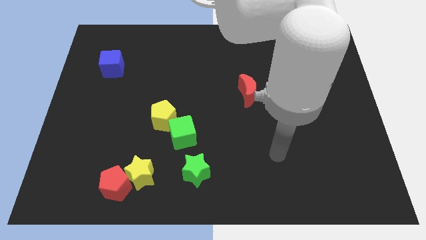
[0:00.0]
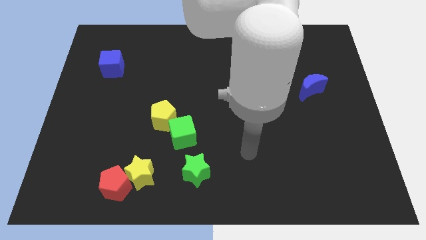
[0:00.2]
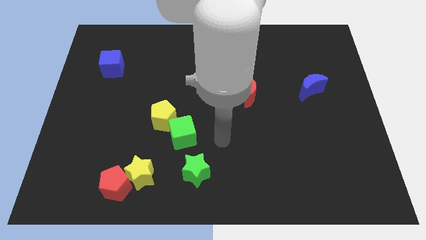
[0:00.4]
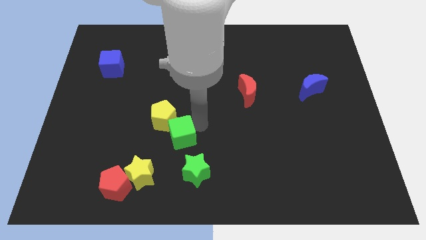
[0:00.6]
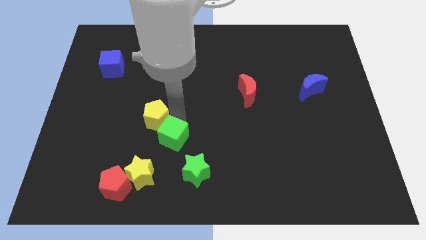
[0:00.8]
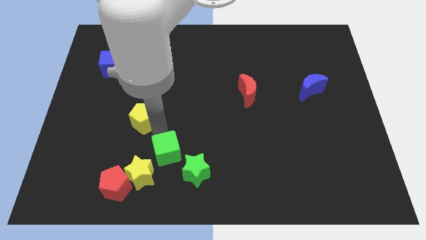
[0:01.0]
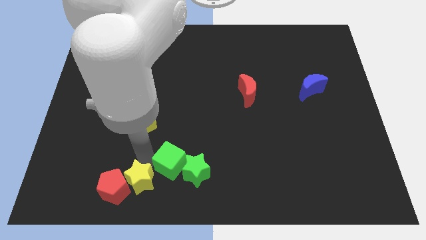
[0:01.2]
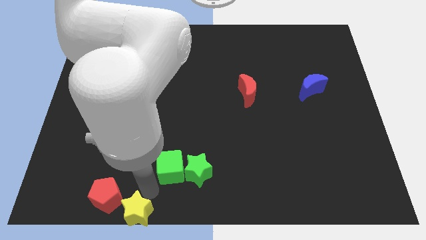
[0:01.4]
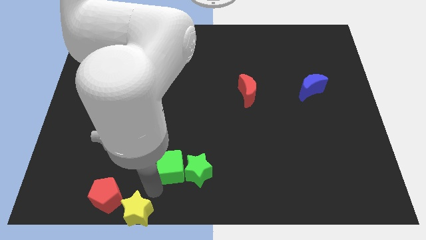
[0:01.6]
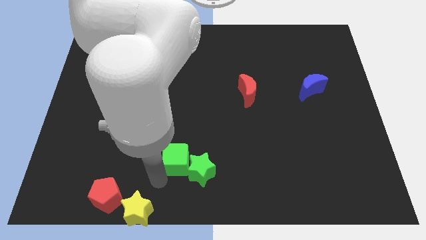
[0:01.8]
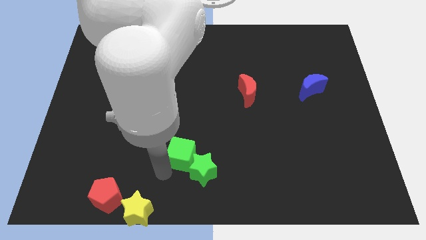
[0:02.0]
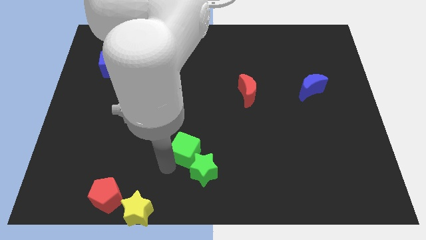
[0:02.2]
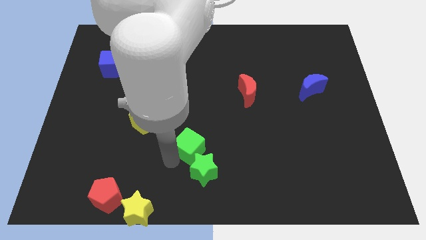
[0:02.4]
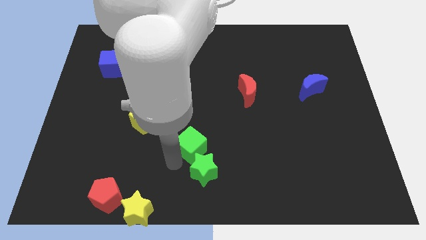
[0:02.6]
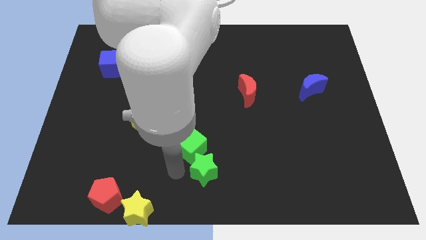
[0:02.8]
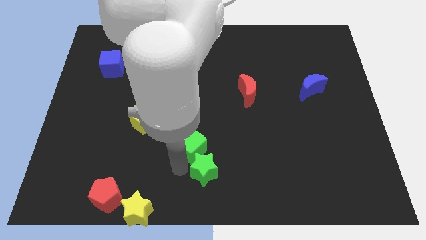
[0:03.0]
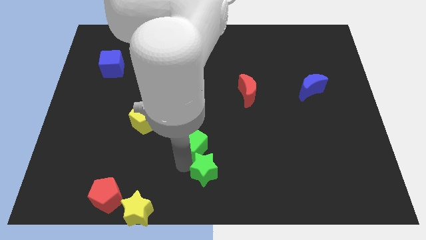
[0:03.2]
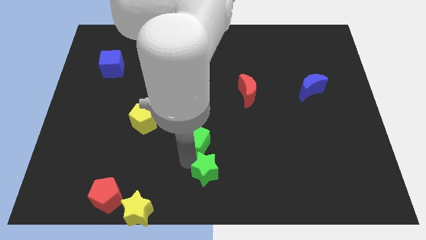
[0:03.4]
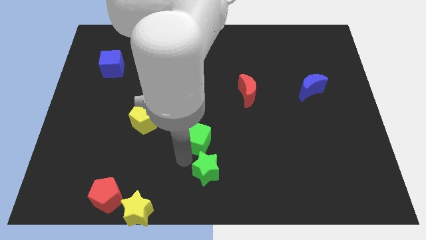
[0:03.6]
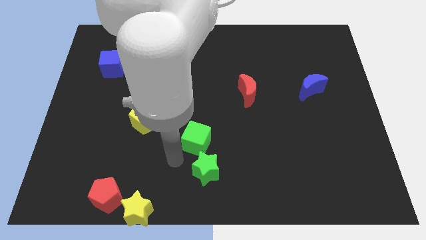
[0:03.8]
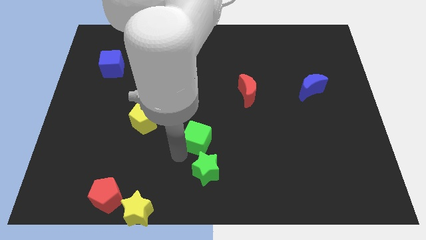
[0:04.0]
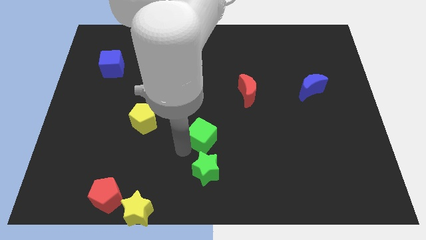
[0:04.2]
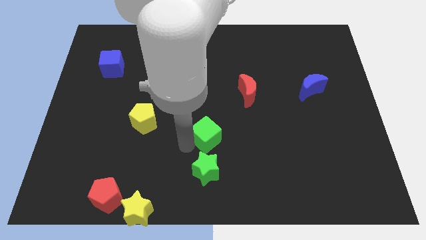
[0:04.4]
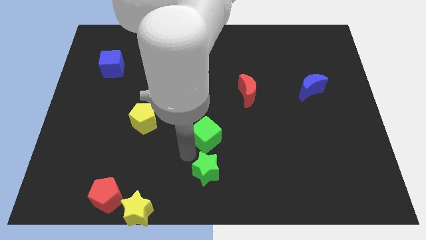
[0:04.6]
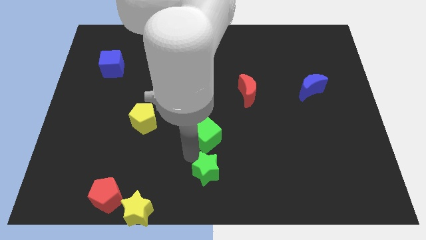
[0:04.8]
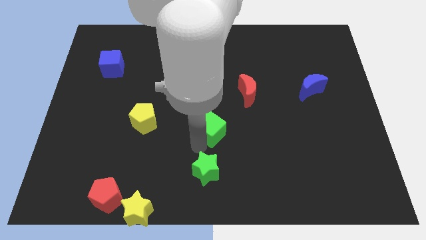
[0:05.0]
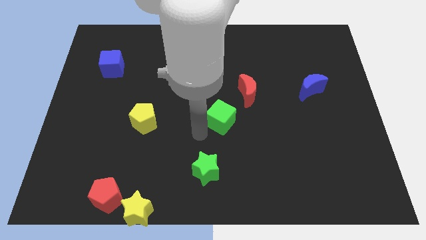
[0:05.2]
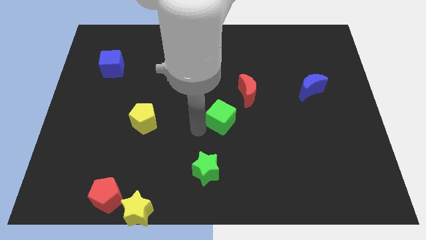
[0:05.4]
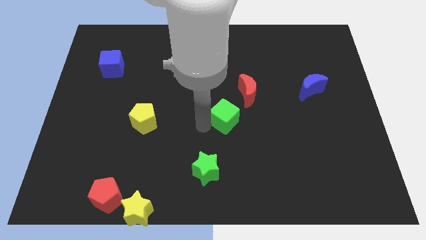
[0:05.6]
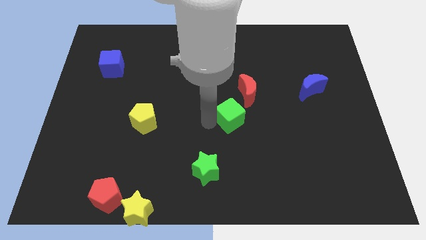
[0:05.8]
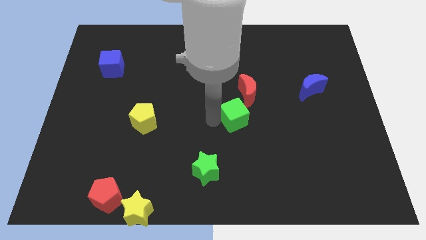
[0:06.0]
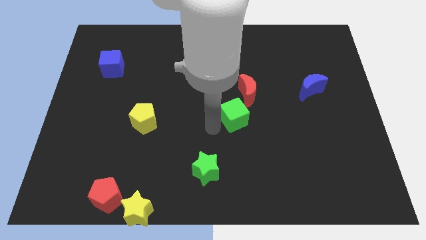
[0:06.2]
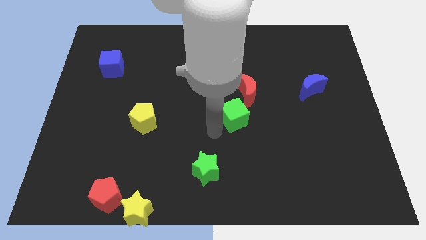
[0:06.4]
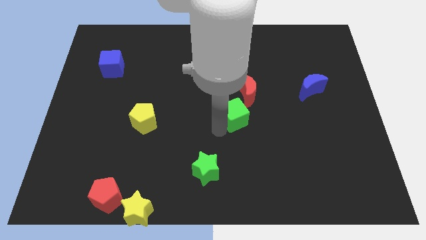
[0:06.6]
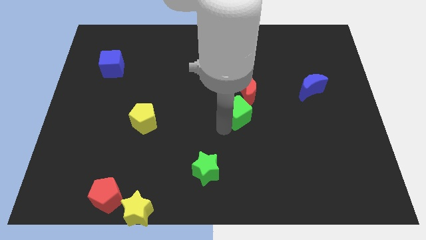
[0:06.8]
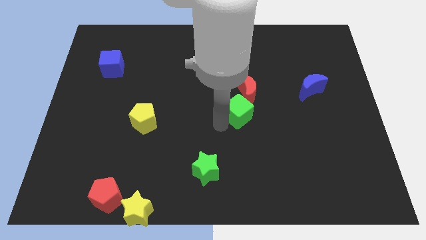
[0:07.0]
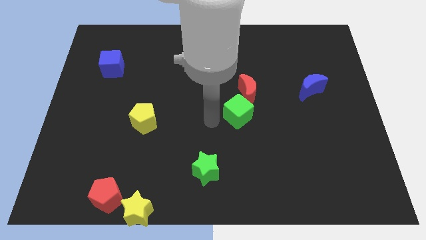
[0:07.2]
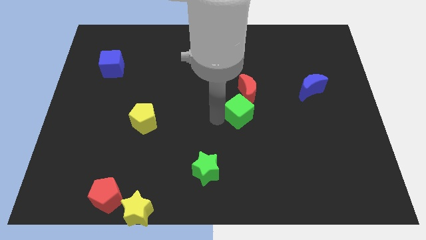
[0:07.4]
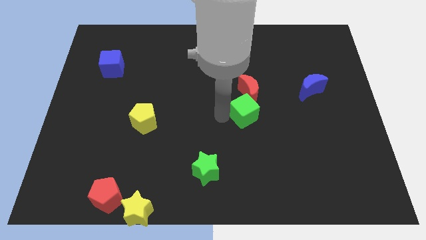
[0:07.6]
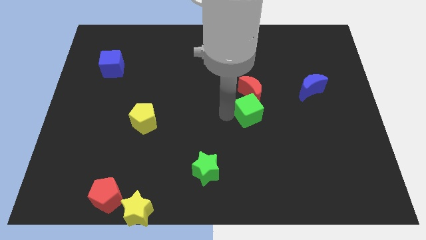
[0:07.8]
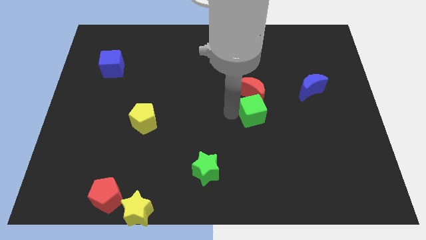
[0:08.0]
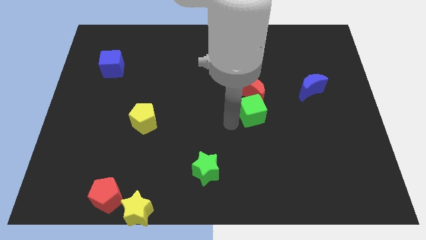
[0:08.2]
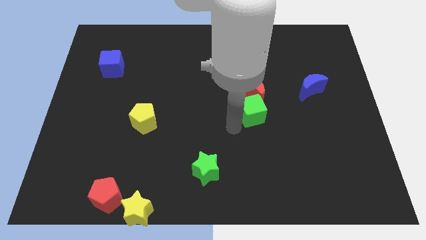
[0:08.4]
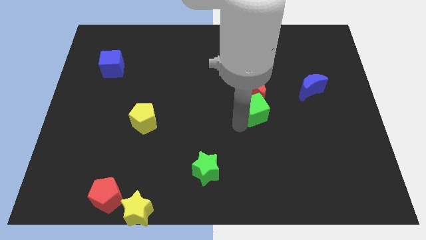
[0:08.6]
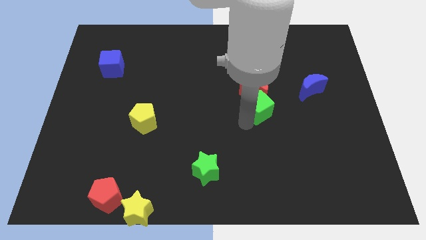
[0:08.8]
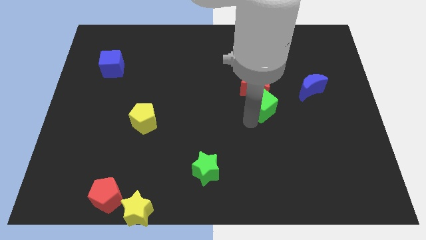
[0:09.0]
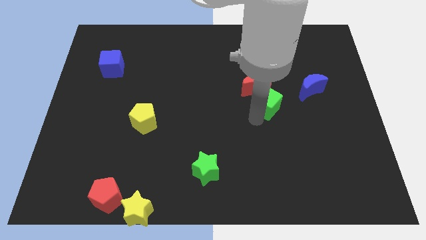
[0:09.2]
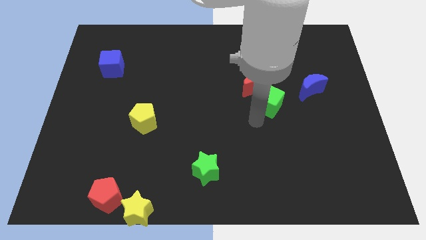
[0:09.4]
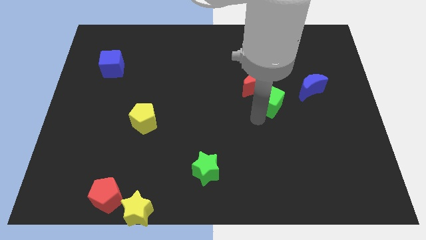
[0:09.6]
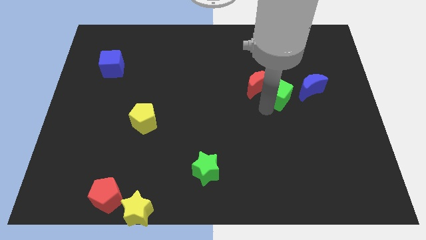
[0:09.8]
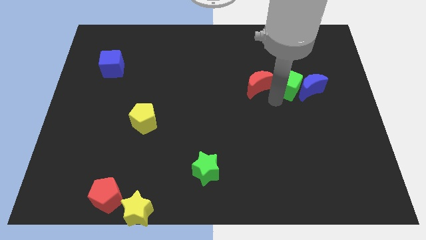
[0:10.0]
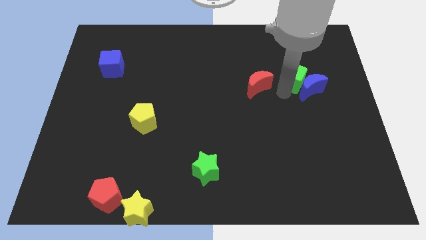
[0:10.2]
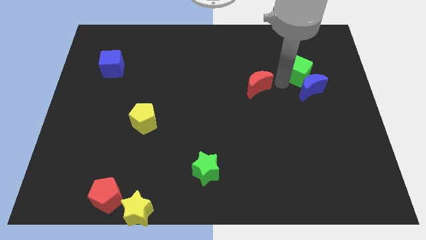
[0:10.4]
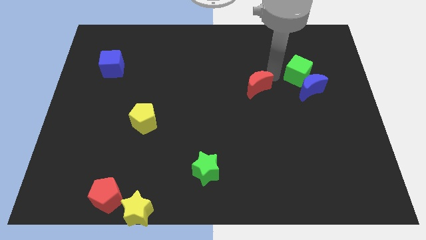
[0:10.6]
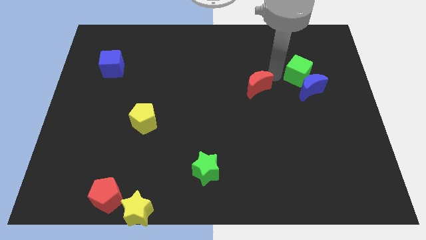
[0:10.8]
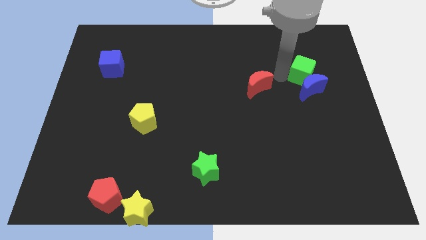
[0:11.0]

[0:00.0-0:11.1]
push the green cube diagonally up and to the right of the blue moon

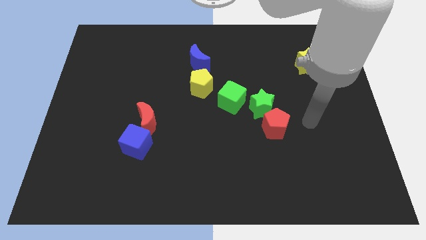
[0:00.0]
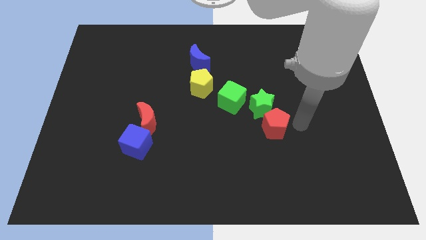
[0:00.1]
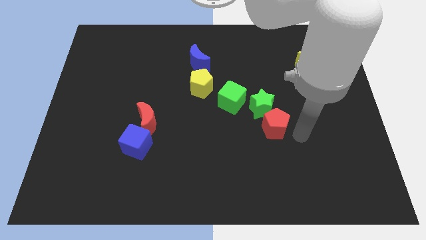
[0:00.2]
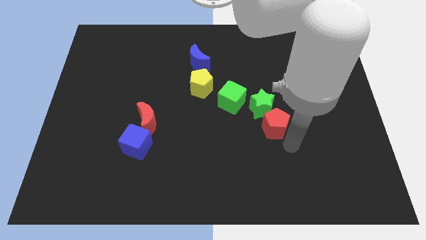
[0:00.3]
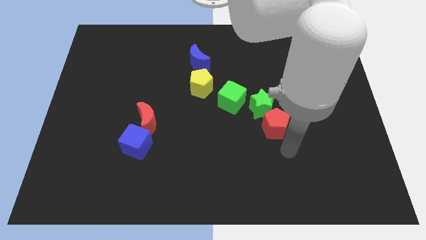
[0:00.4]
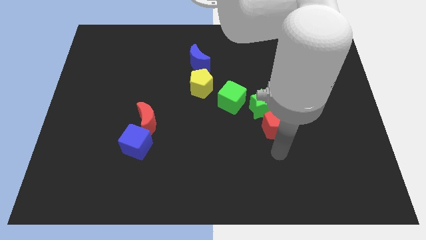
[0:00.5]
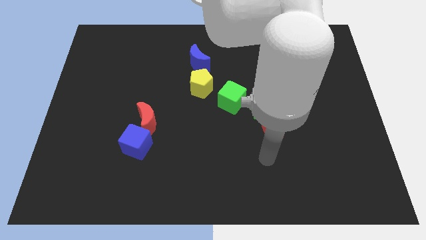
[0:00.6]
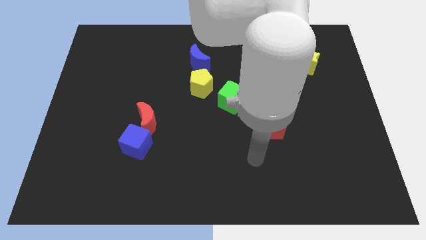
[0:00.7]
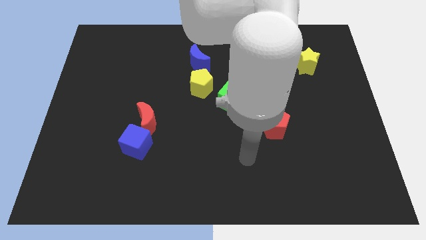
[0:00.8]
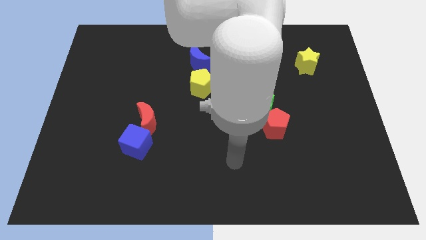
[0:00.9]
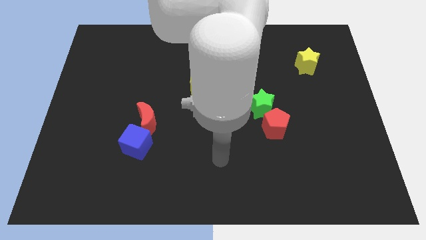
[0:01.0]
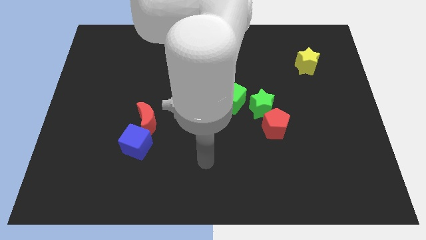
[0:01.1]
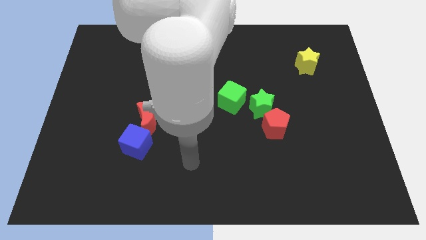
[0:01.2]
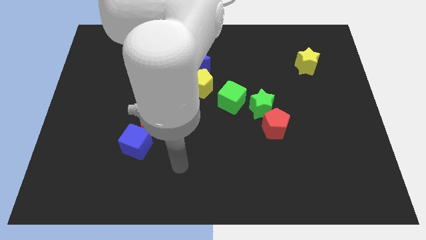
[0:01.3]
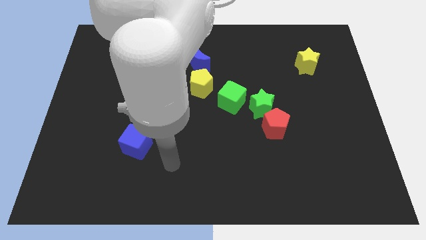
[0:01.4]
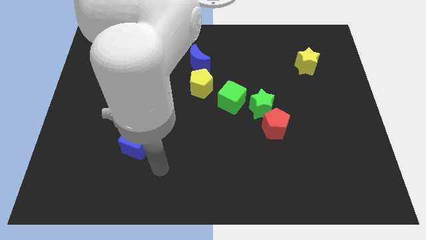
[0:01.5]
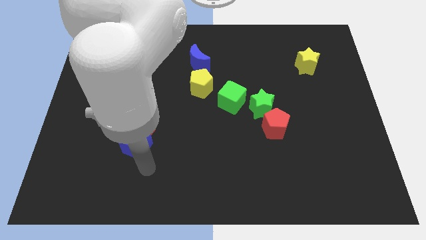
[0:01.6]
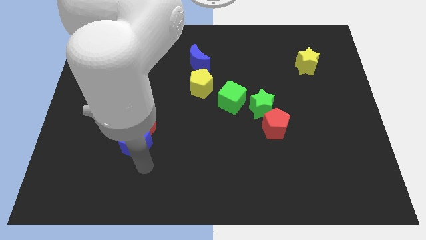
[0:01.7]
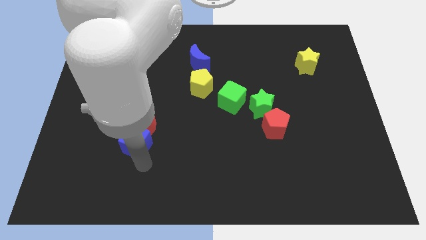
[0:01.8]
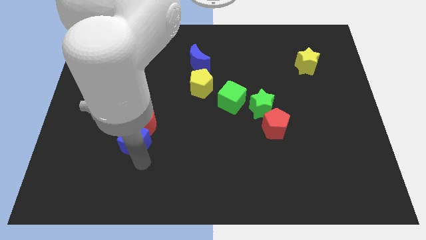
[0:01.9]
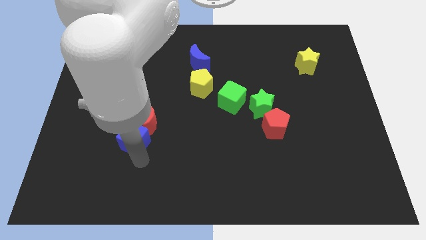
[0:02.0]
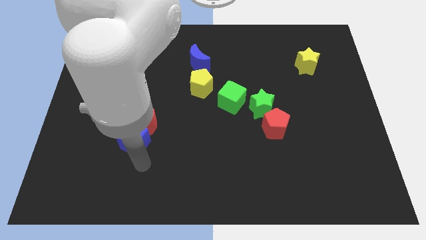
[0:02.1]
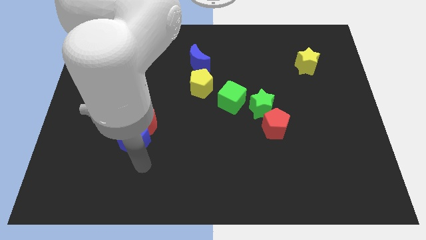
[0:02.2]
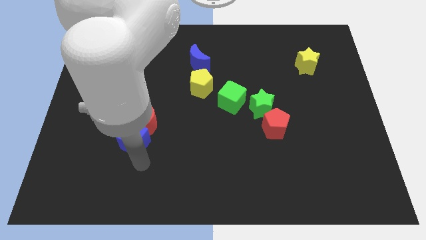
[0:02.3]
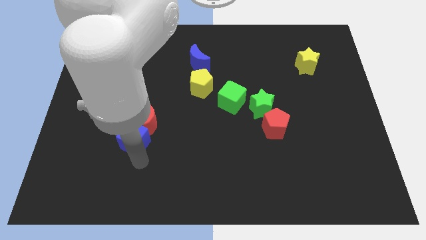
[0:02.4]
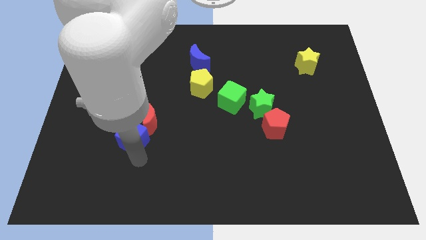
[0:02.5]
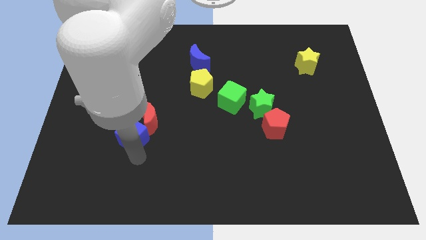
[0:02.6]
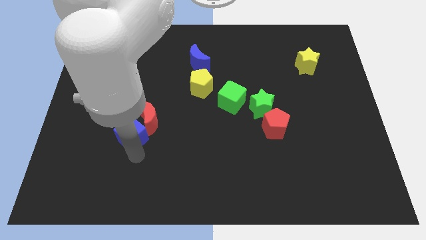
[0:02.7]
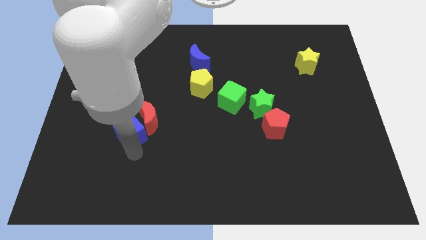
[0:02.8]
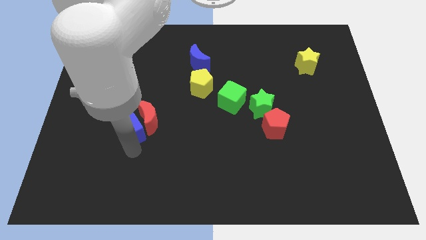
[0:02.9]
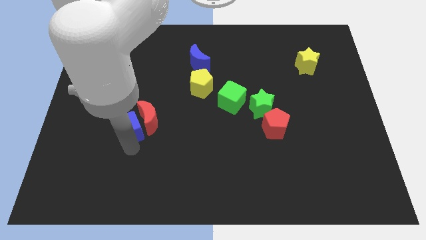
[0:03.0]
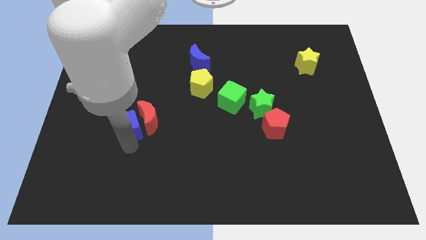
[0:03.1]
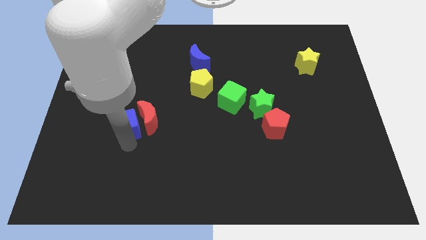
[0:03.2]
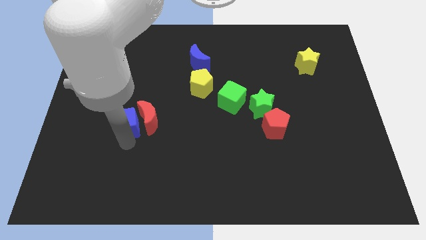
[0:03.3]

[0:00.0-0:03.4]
move the blue cube to the top left of the red moon
